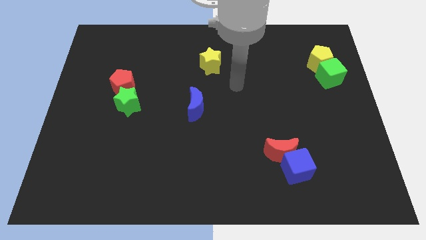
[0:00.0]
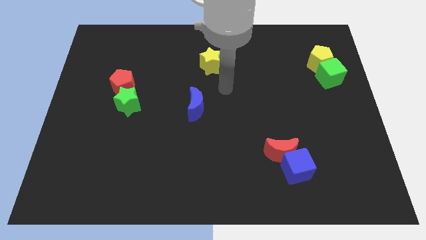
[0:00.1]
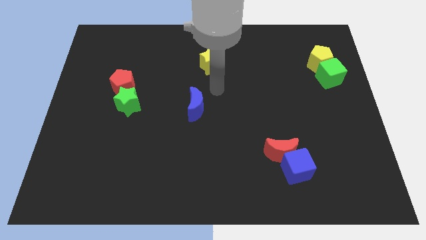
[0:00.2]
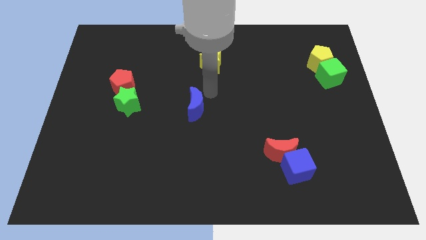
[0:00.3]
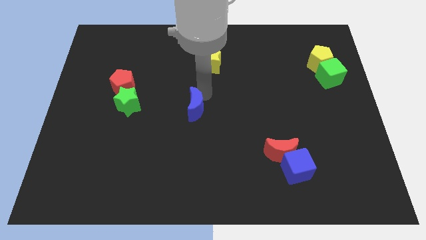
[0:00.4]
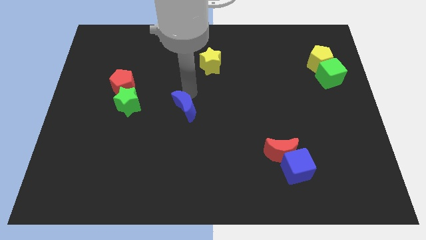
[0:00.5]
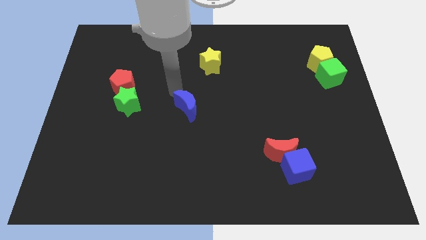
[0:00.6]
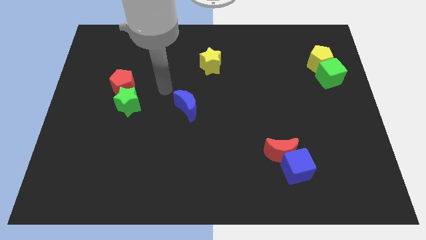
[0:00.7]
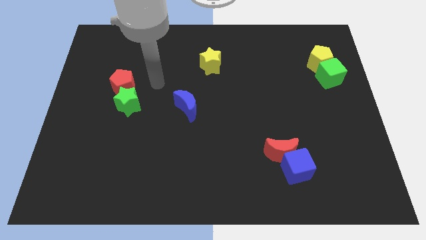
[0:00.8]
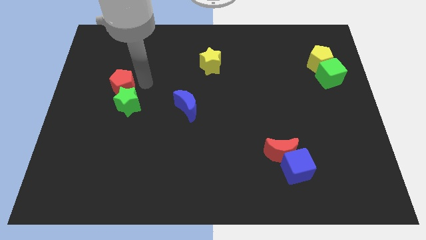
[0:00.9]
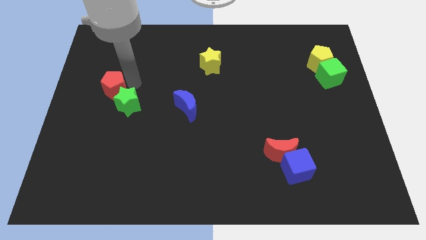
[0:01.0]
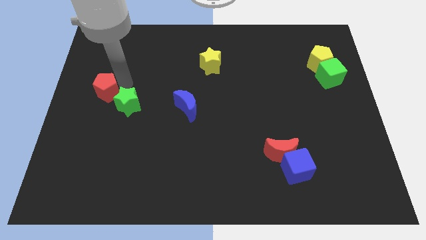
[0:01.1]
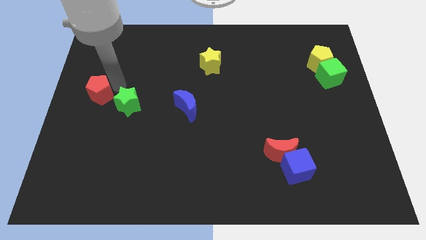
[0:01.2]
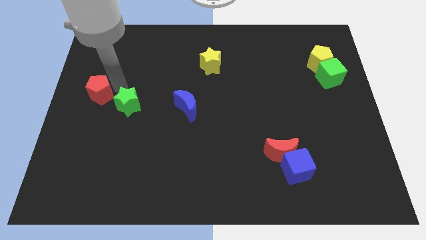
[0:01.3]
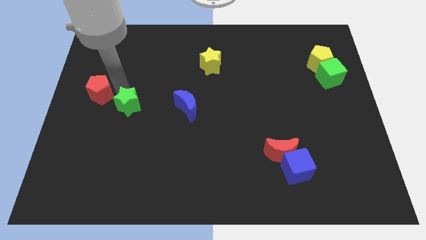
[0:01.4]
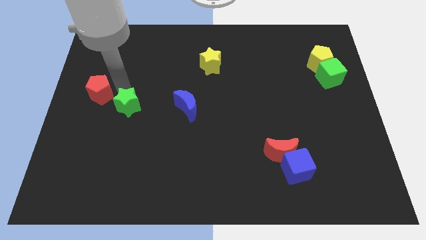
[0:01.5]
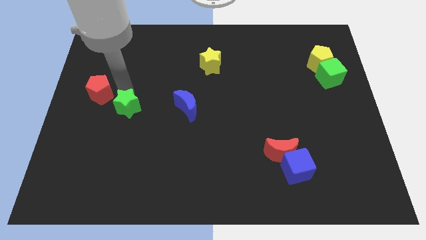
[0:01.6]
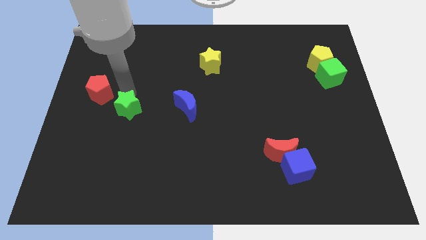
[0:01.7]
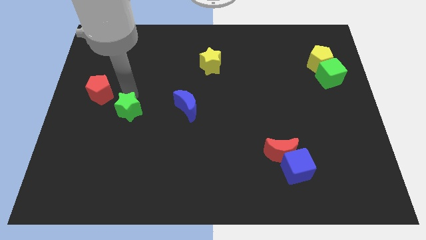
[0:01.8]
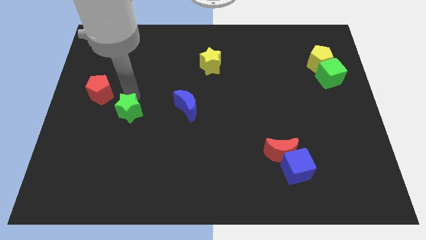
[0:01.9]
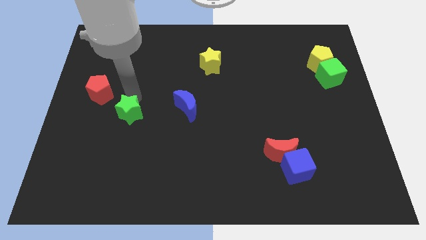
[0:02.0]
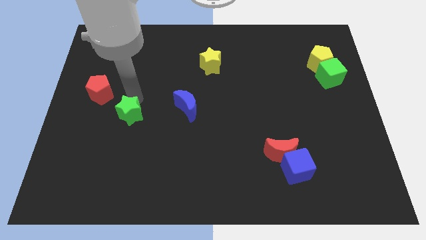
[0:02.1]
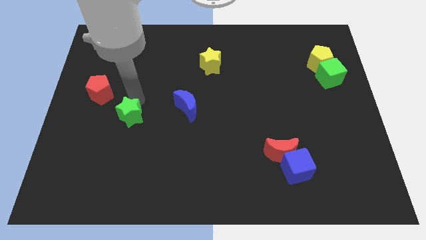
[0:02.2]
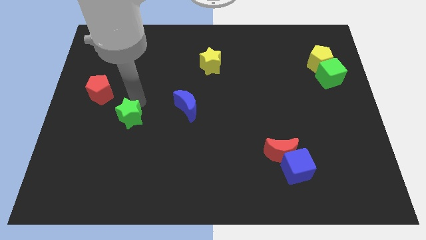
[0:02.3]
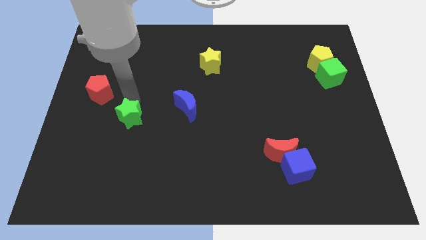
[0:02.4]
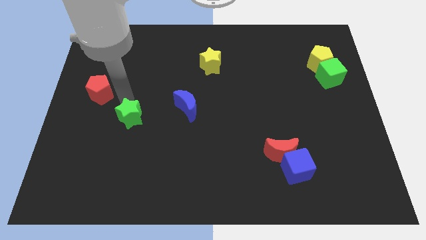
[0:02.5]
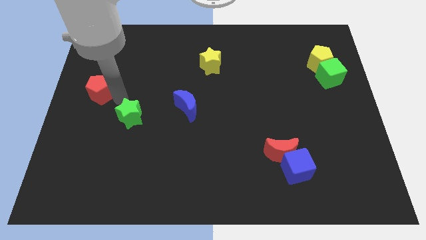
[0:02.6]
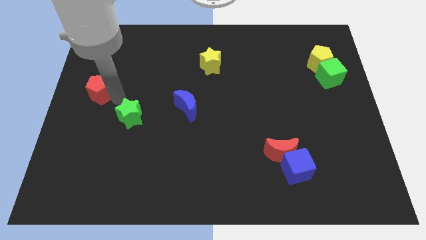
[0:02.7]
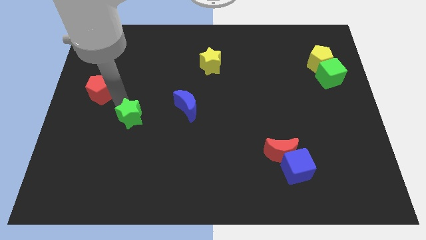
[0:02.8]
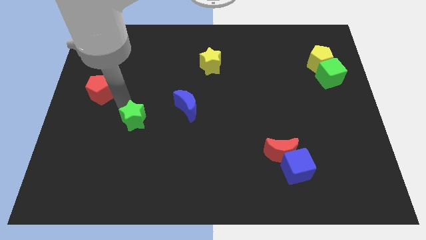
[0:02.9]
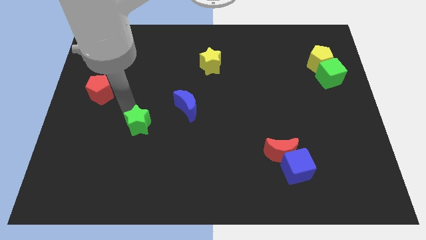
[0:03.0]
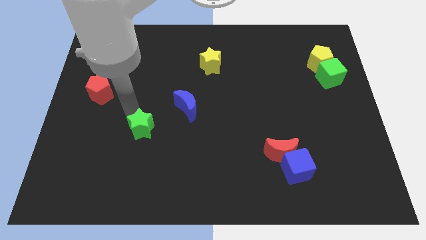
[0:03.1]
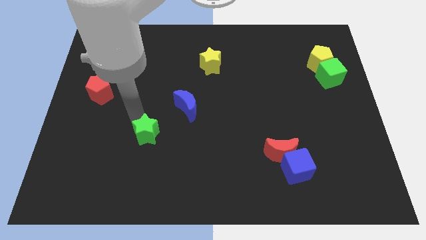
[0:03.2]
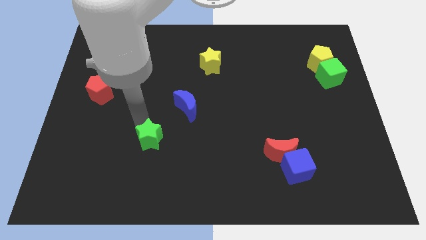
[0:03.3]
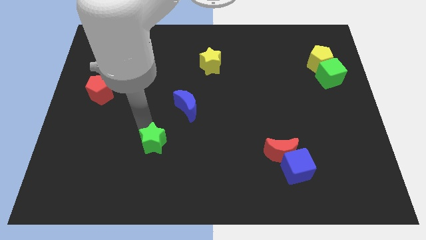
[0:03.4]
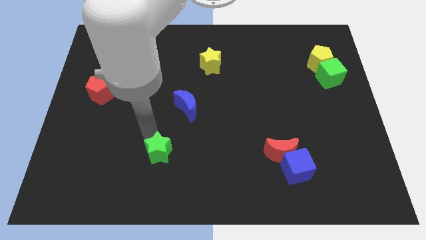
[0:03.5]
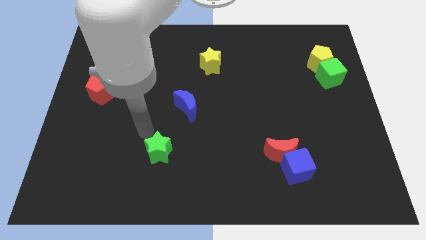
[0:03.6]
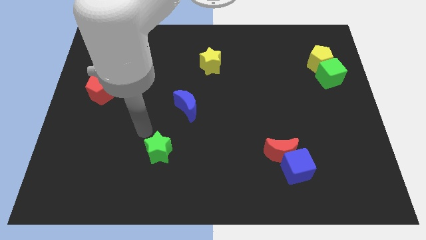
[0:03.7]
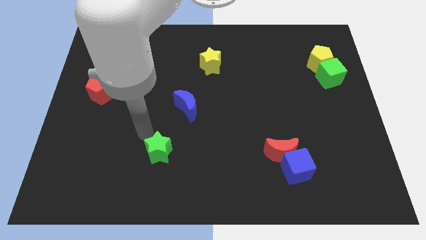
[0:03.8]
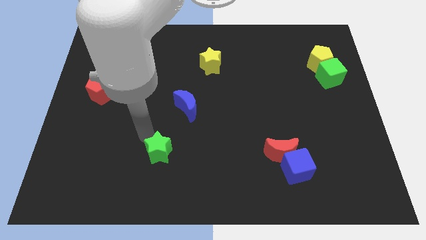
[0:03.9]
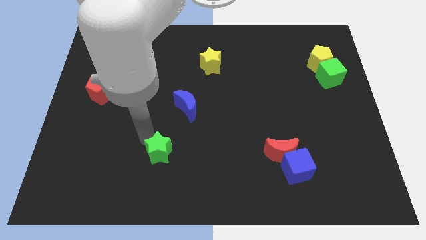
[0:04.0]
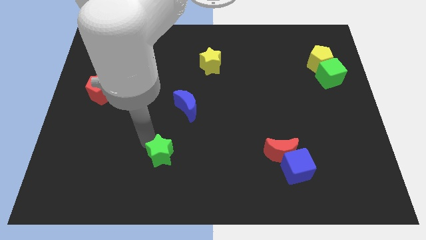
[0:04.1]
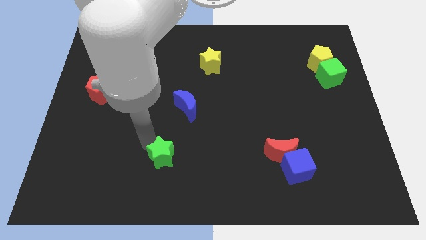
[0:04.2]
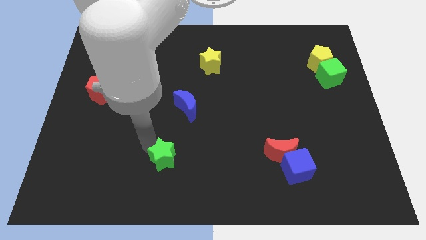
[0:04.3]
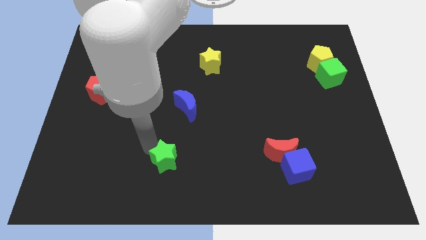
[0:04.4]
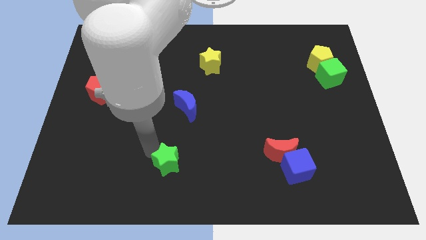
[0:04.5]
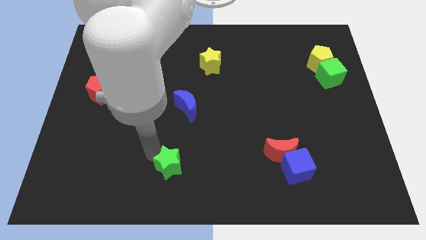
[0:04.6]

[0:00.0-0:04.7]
slide the green star to the bottom side

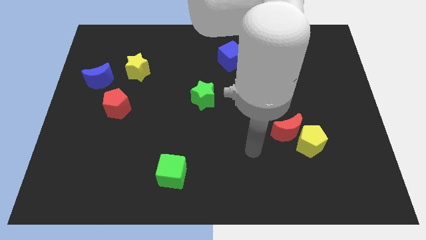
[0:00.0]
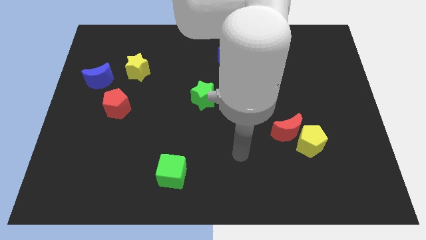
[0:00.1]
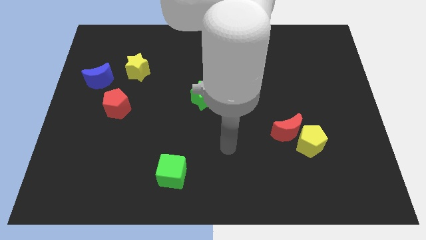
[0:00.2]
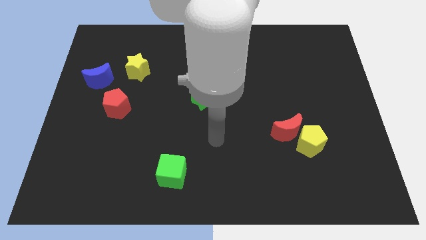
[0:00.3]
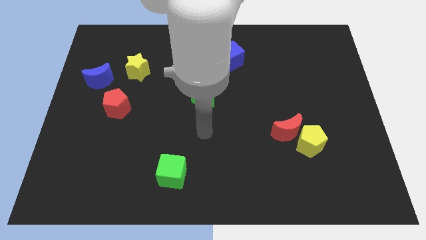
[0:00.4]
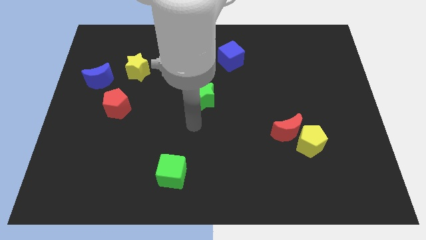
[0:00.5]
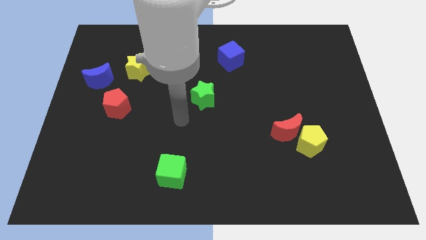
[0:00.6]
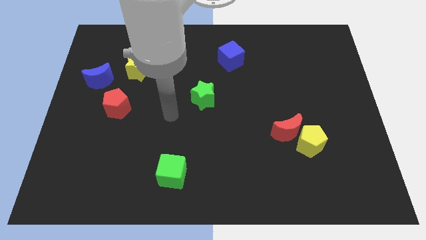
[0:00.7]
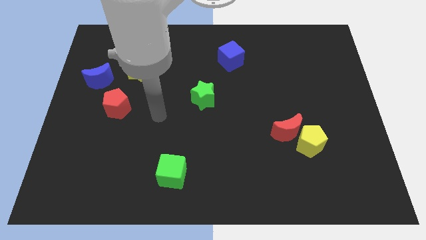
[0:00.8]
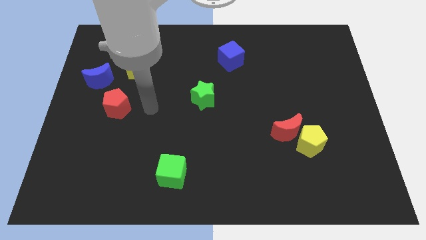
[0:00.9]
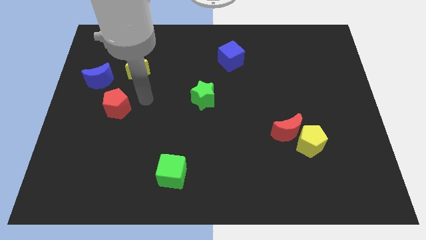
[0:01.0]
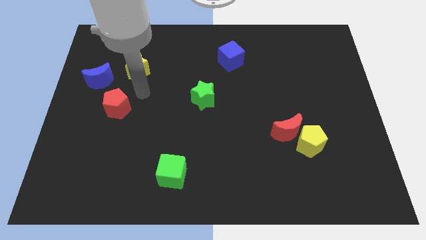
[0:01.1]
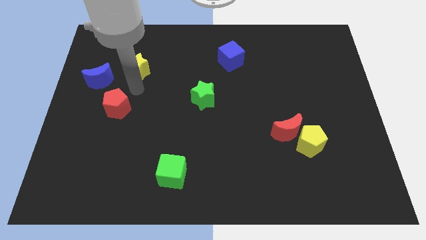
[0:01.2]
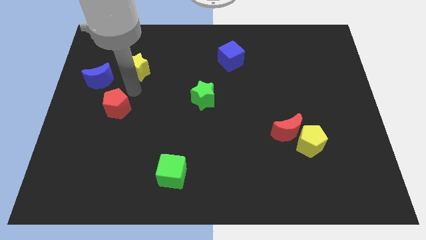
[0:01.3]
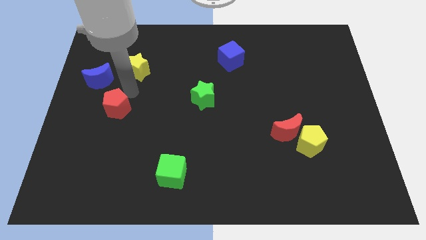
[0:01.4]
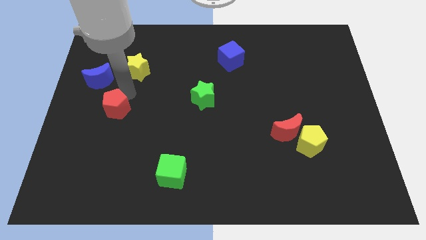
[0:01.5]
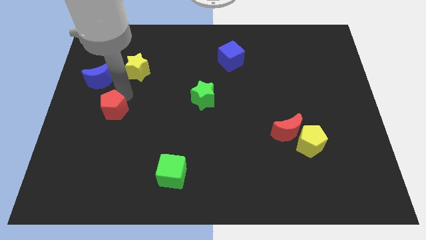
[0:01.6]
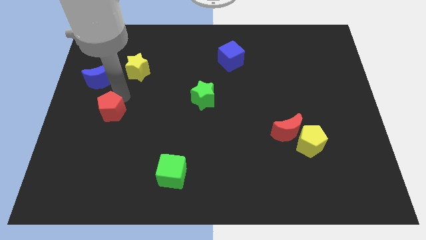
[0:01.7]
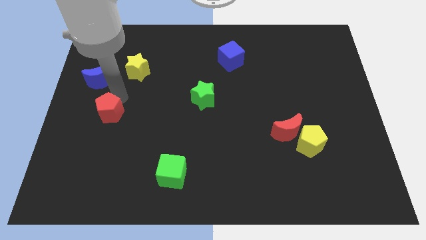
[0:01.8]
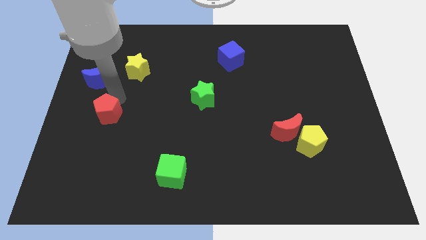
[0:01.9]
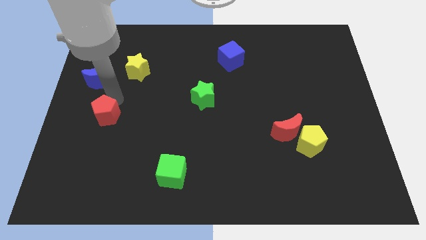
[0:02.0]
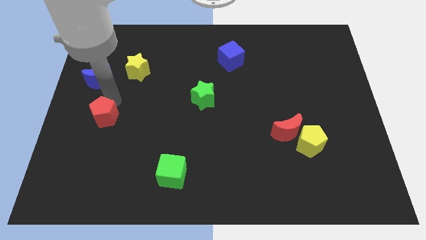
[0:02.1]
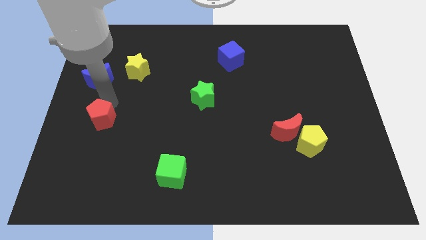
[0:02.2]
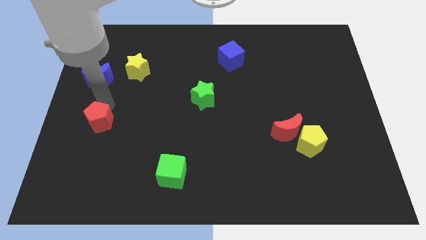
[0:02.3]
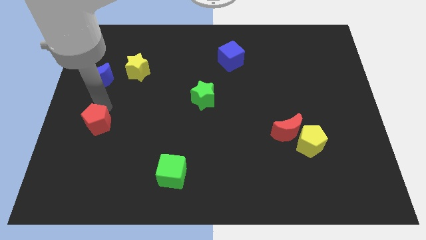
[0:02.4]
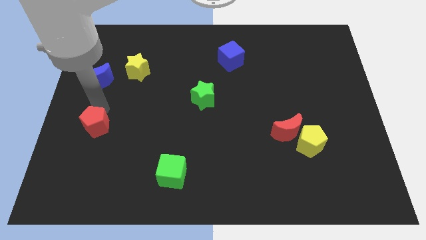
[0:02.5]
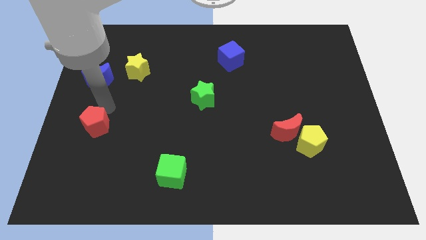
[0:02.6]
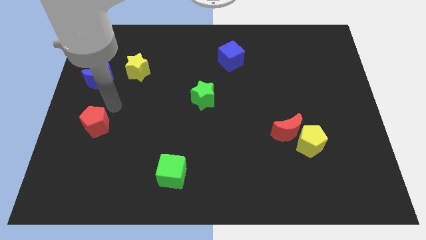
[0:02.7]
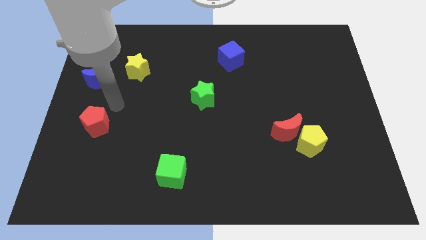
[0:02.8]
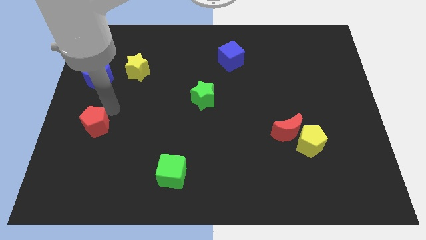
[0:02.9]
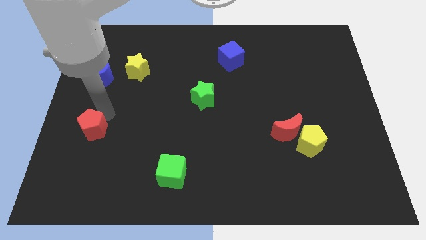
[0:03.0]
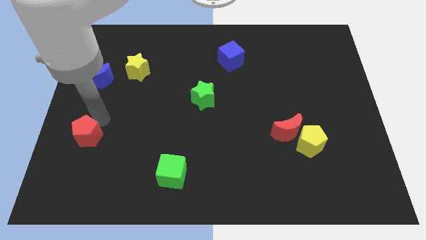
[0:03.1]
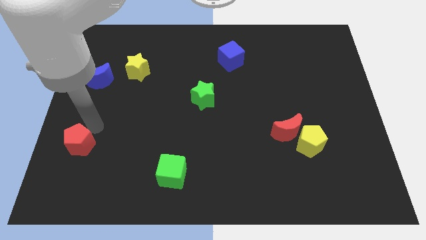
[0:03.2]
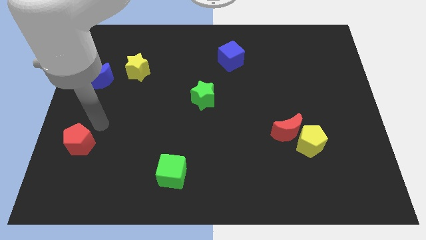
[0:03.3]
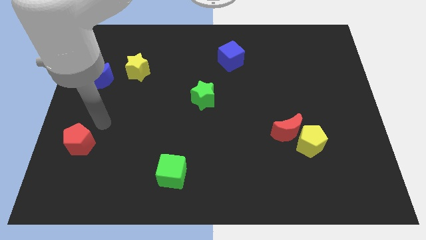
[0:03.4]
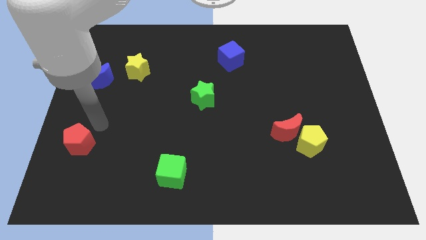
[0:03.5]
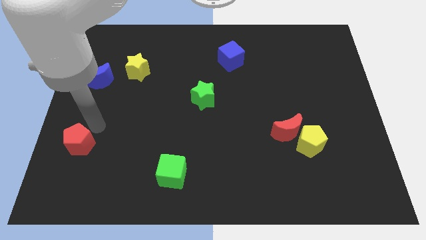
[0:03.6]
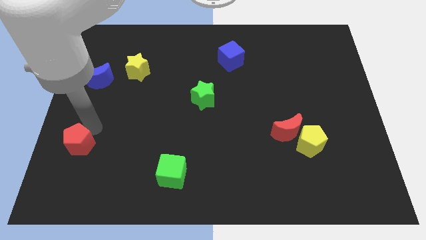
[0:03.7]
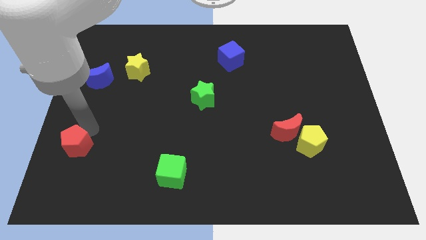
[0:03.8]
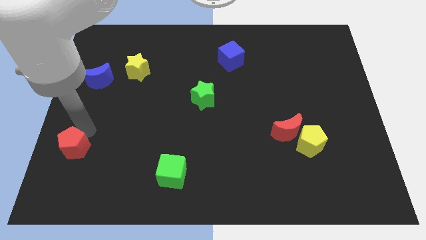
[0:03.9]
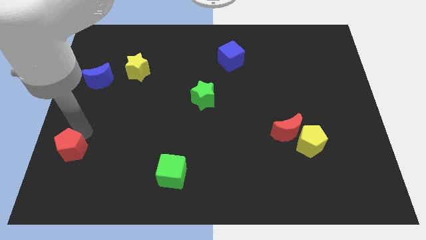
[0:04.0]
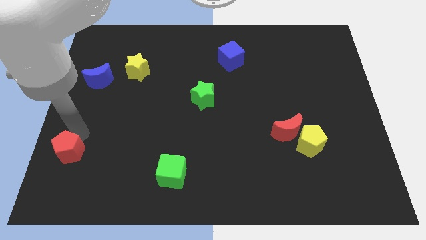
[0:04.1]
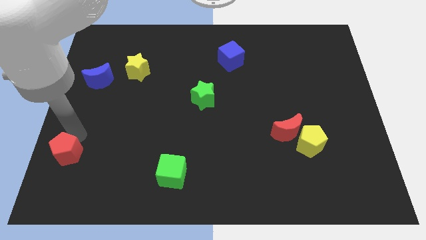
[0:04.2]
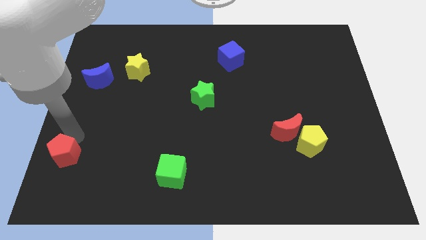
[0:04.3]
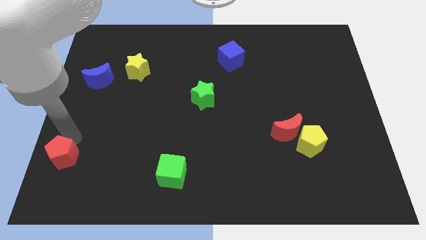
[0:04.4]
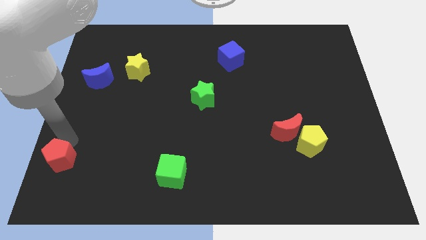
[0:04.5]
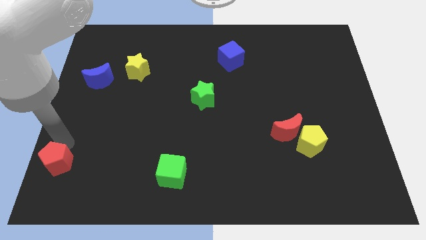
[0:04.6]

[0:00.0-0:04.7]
slide the red pentagon to the bottom left corner
